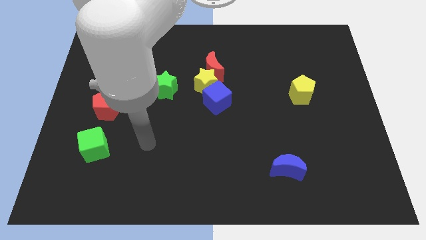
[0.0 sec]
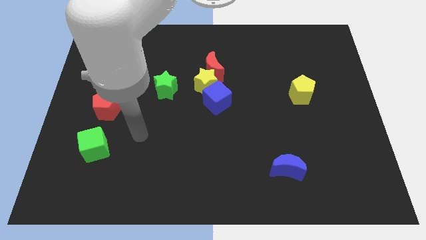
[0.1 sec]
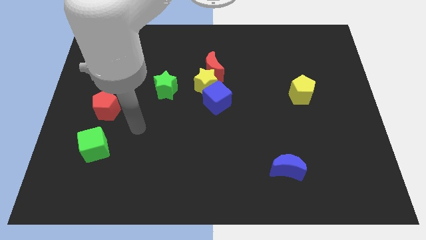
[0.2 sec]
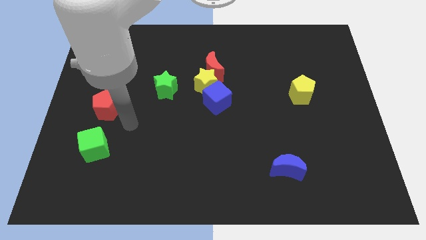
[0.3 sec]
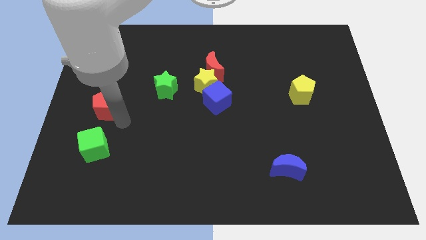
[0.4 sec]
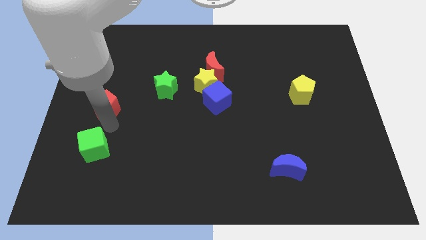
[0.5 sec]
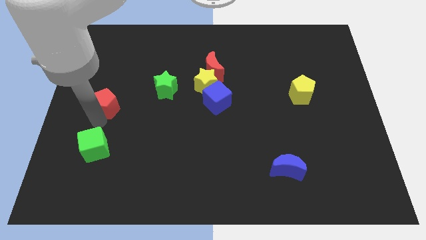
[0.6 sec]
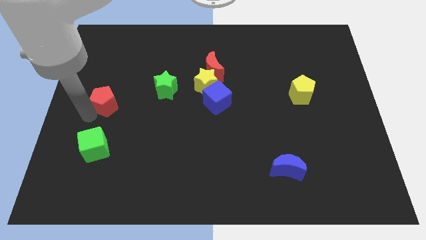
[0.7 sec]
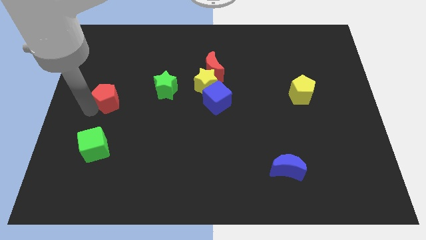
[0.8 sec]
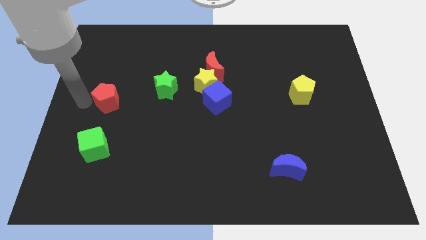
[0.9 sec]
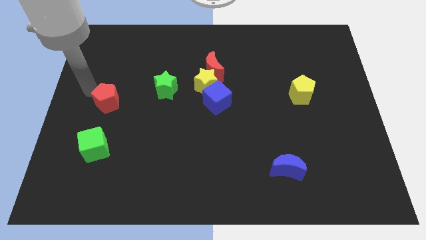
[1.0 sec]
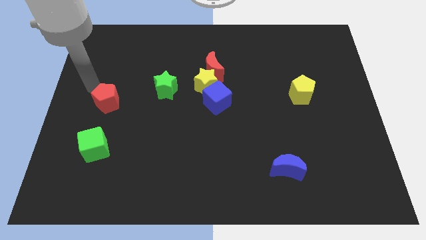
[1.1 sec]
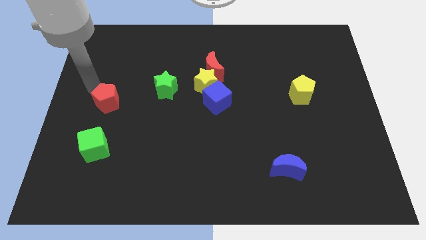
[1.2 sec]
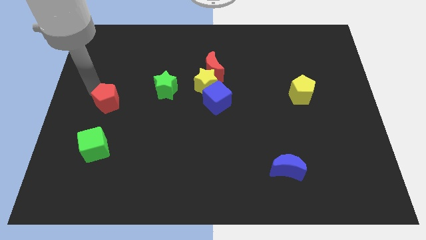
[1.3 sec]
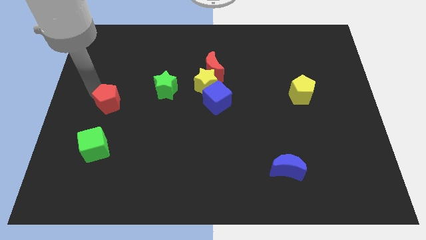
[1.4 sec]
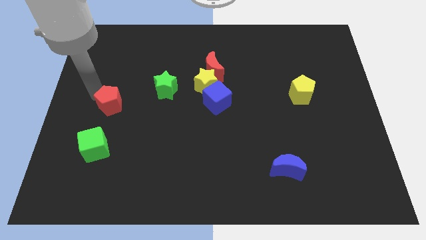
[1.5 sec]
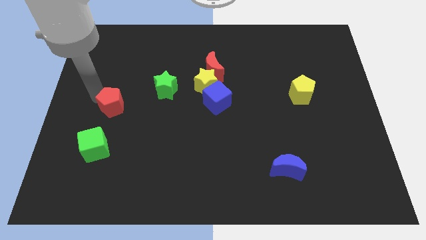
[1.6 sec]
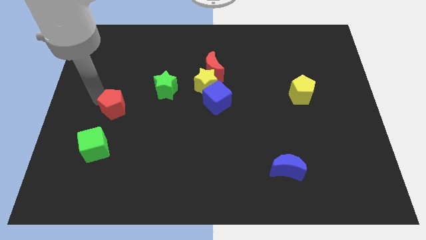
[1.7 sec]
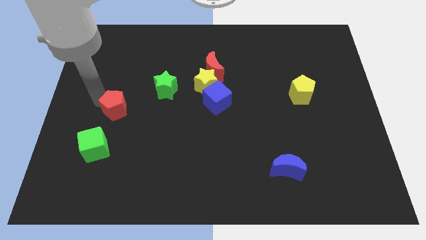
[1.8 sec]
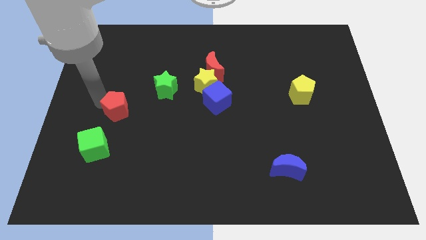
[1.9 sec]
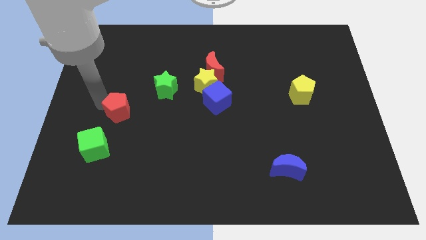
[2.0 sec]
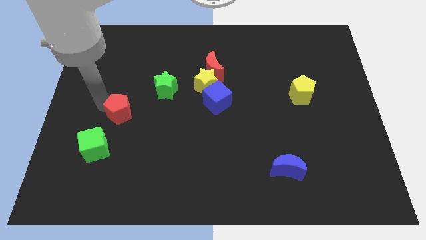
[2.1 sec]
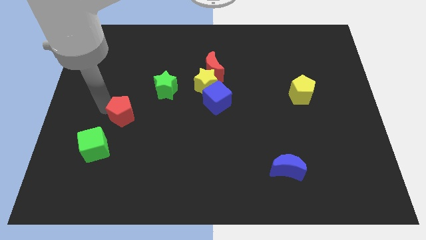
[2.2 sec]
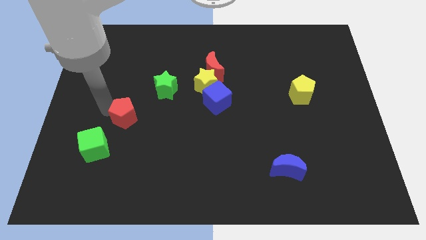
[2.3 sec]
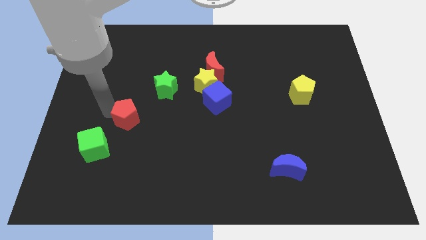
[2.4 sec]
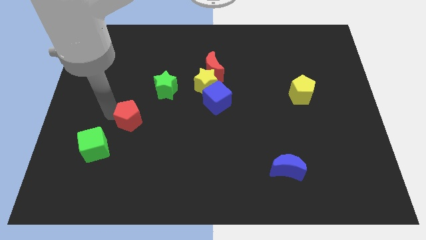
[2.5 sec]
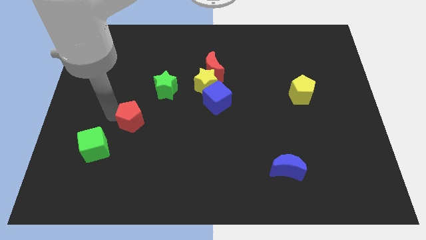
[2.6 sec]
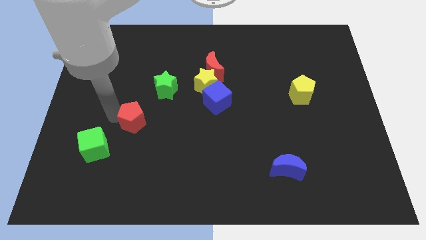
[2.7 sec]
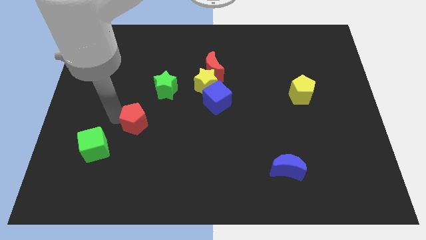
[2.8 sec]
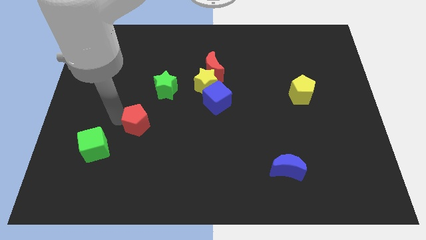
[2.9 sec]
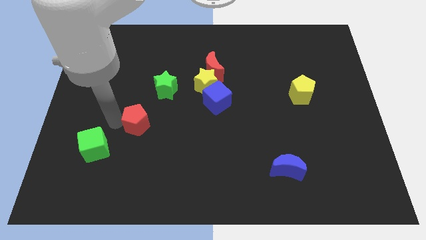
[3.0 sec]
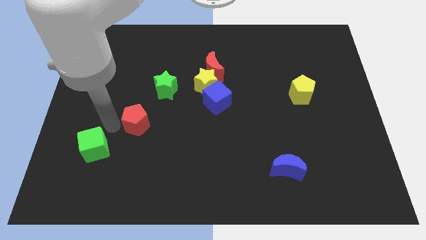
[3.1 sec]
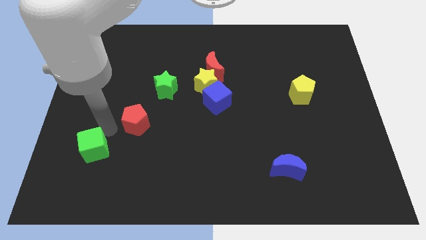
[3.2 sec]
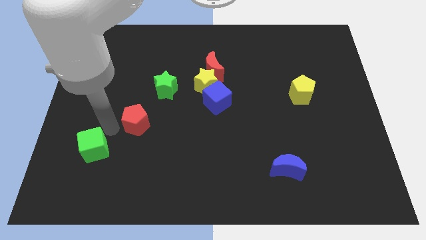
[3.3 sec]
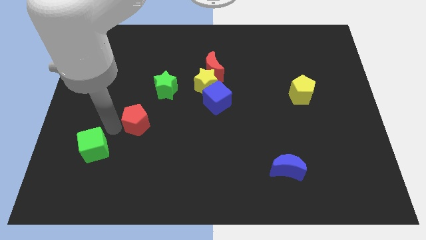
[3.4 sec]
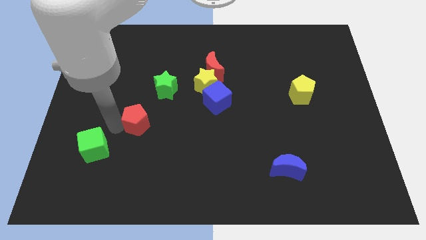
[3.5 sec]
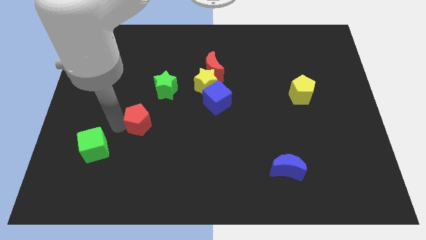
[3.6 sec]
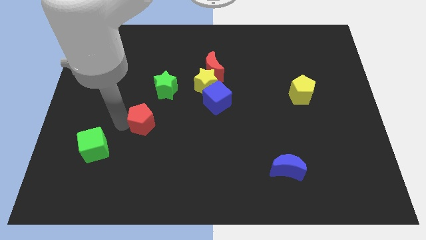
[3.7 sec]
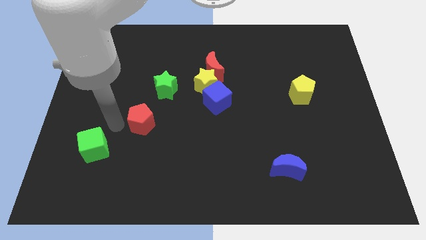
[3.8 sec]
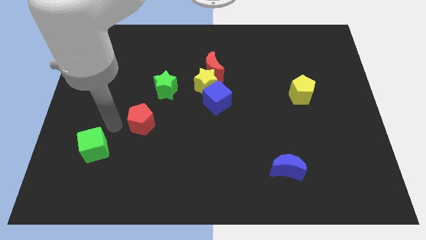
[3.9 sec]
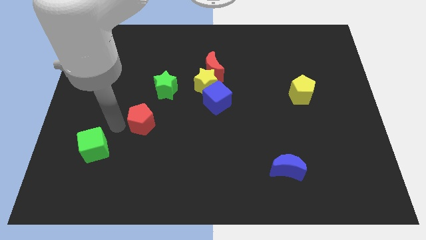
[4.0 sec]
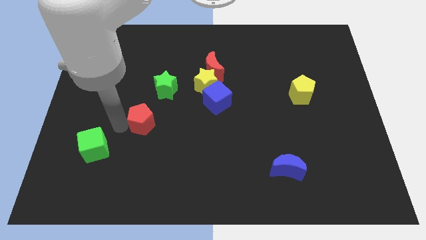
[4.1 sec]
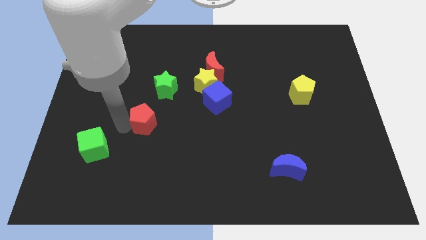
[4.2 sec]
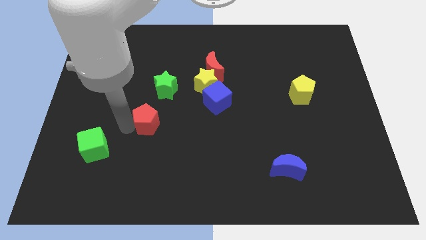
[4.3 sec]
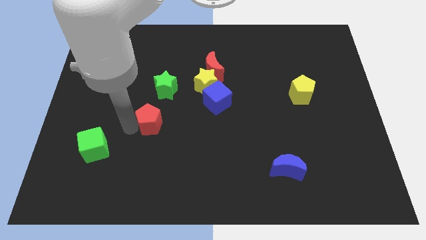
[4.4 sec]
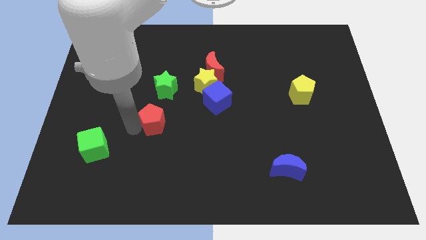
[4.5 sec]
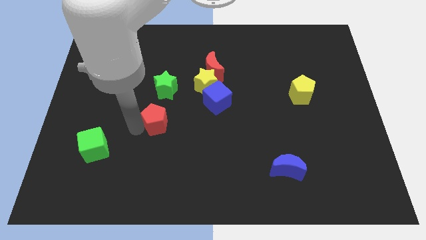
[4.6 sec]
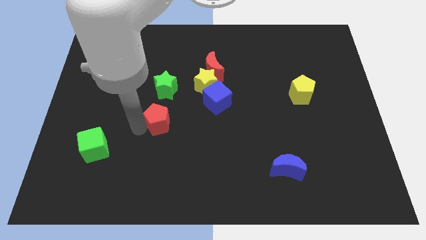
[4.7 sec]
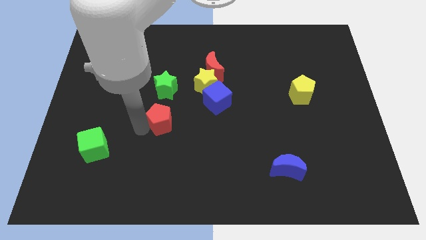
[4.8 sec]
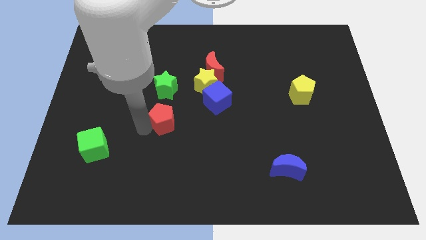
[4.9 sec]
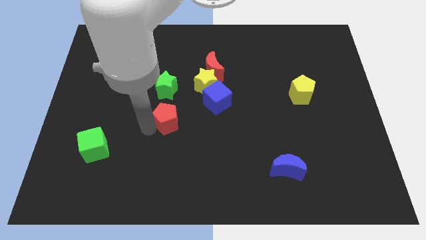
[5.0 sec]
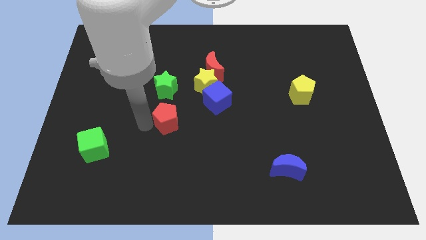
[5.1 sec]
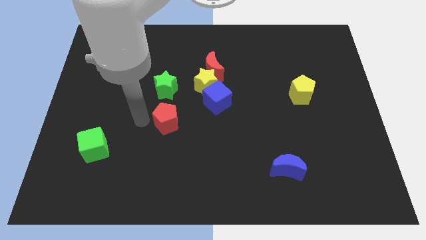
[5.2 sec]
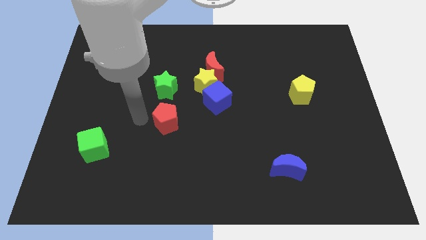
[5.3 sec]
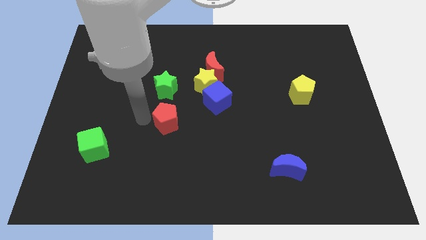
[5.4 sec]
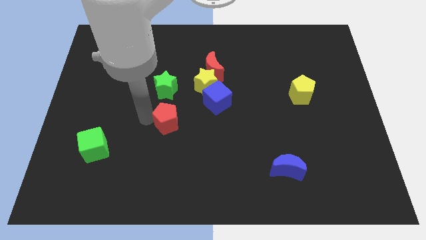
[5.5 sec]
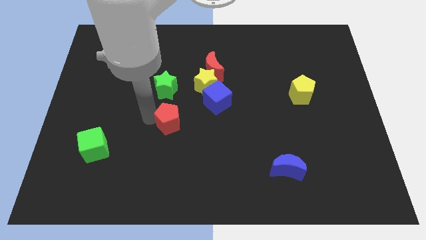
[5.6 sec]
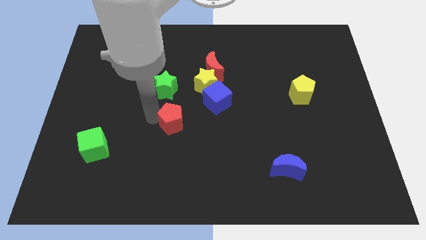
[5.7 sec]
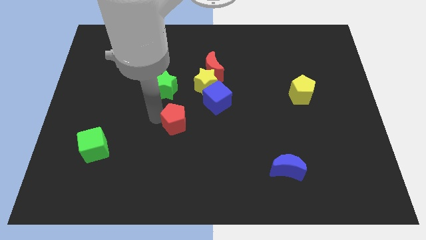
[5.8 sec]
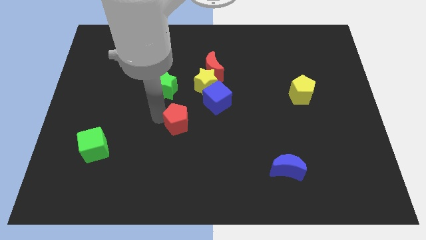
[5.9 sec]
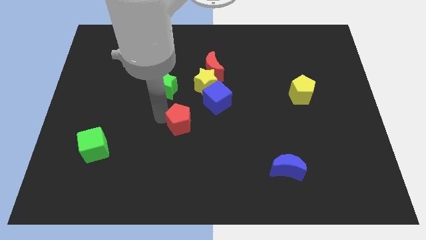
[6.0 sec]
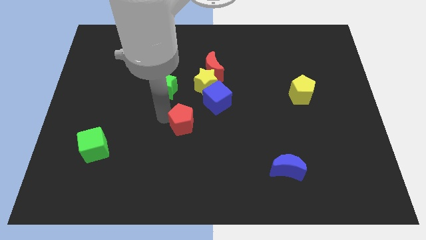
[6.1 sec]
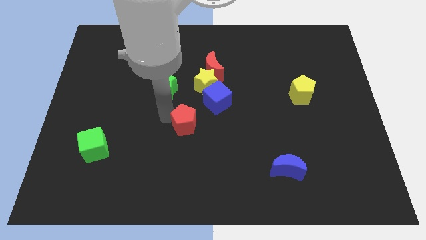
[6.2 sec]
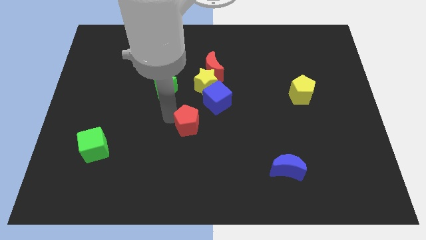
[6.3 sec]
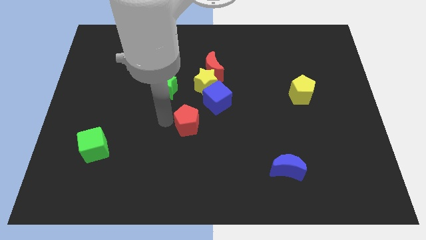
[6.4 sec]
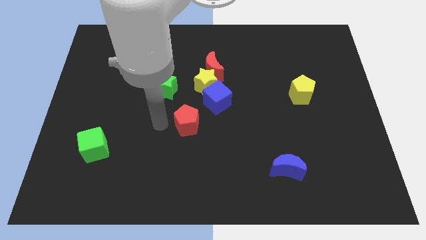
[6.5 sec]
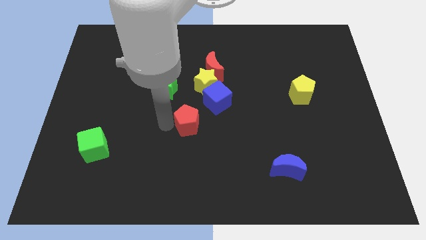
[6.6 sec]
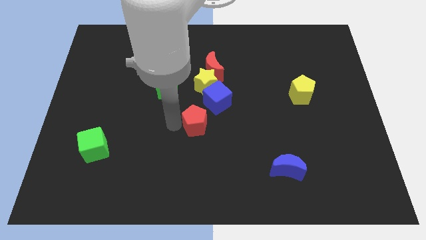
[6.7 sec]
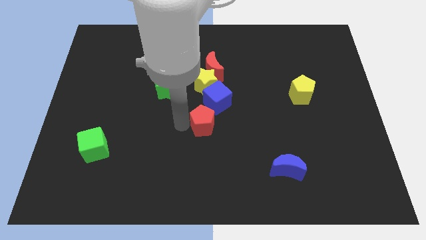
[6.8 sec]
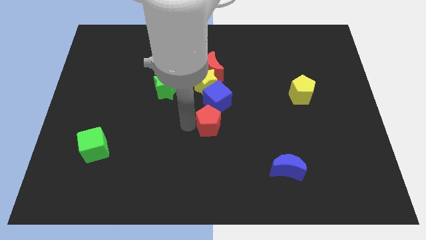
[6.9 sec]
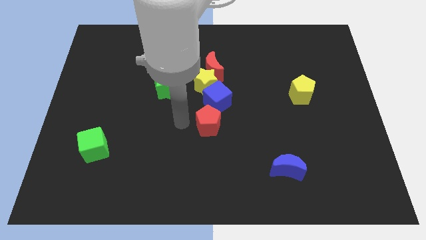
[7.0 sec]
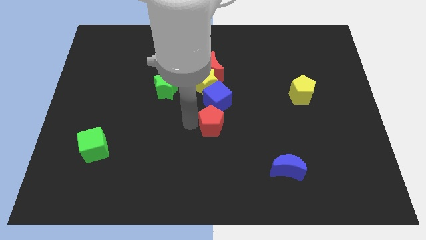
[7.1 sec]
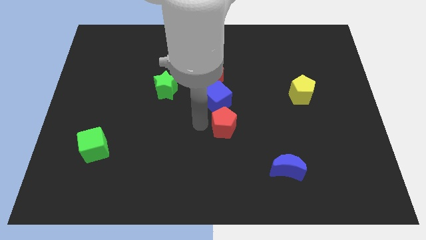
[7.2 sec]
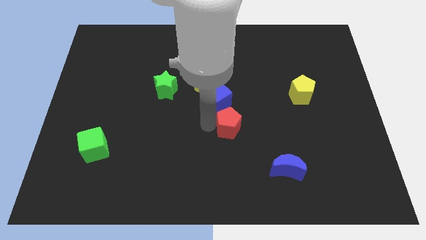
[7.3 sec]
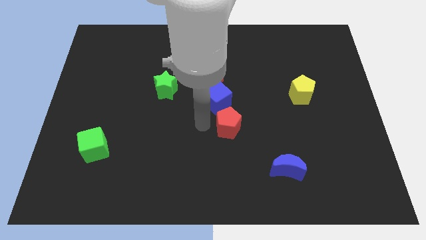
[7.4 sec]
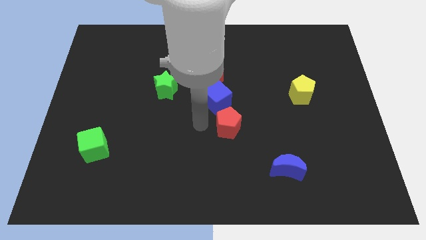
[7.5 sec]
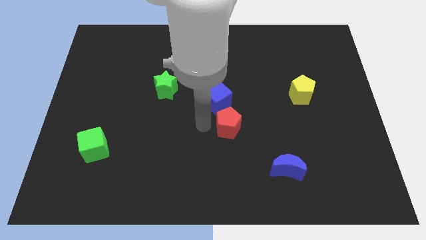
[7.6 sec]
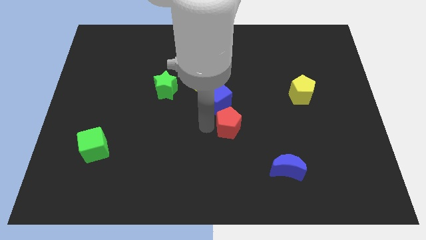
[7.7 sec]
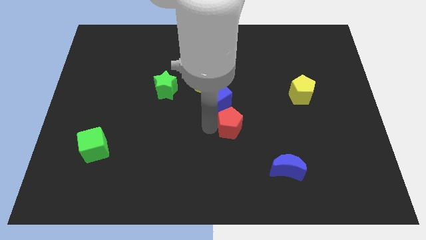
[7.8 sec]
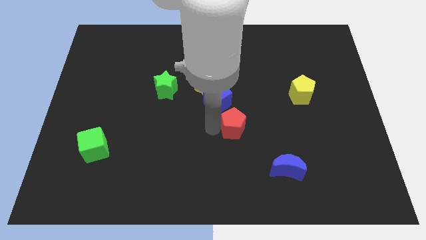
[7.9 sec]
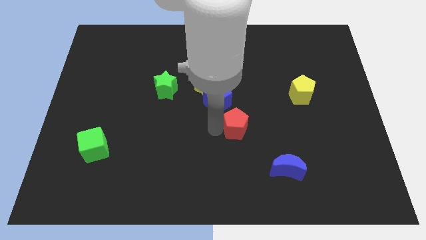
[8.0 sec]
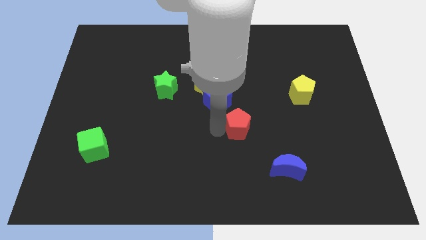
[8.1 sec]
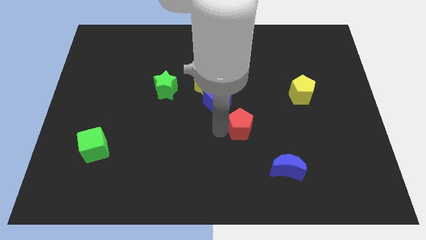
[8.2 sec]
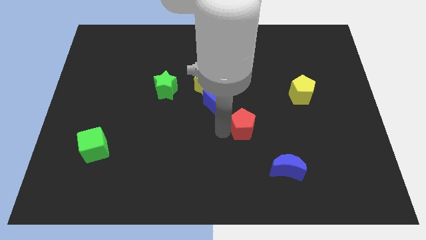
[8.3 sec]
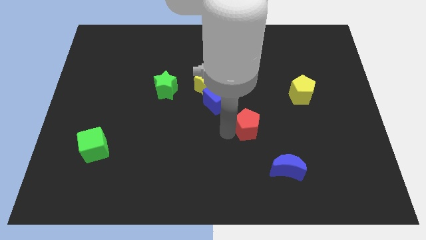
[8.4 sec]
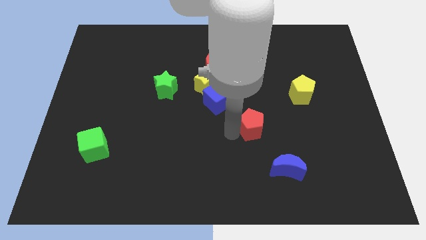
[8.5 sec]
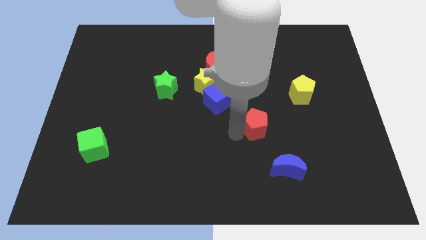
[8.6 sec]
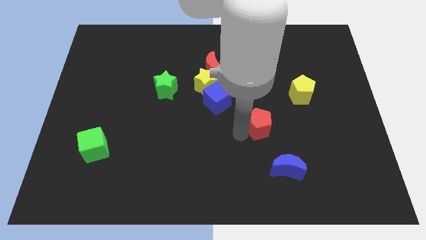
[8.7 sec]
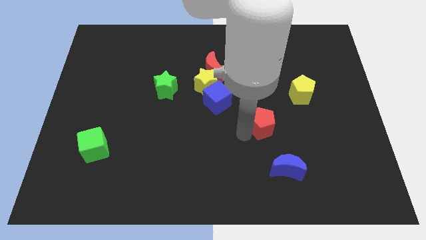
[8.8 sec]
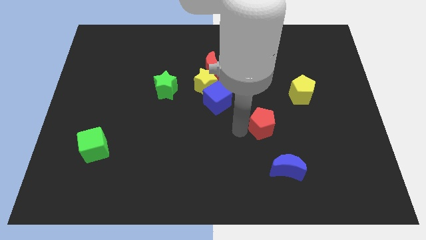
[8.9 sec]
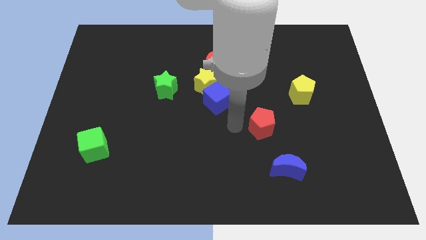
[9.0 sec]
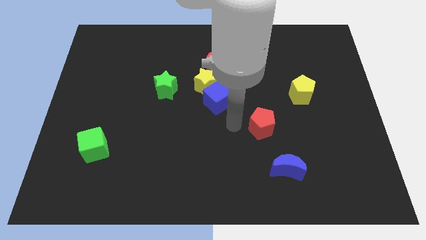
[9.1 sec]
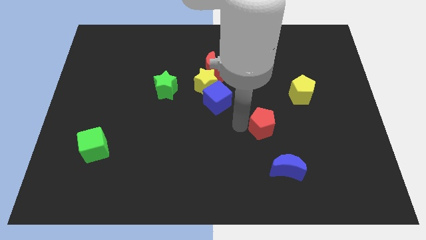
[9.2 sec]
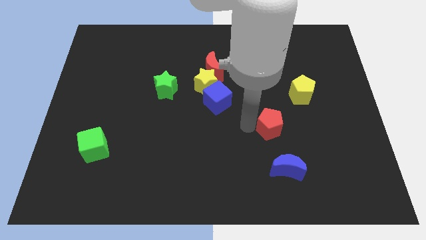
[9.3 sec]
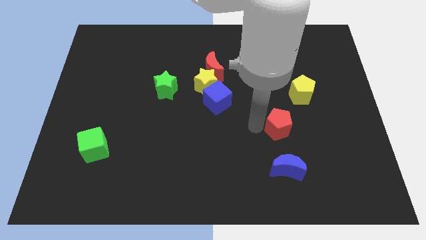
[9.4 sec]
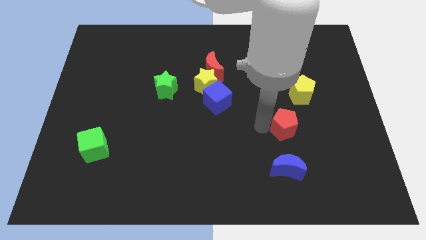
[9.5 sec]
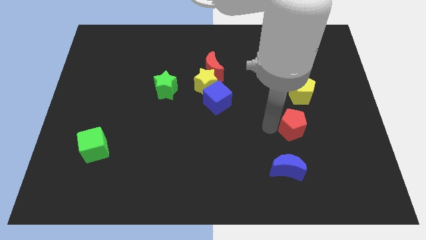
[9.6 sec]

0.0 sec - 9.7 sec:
slide the red pentagon below the yellow pentagon
